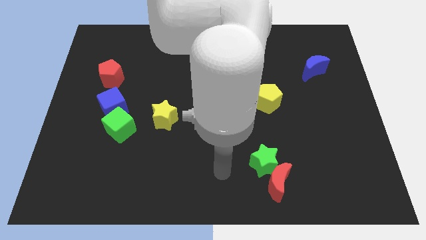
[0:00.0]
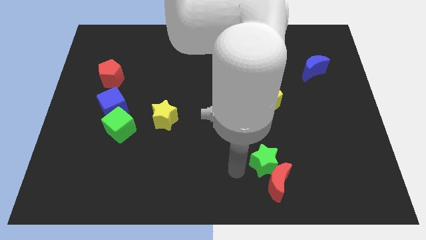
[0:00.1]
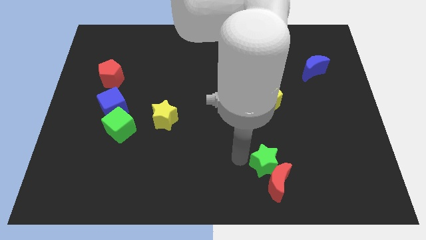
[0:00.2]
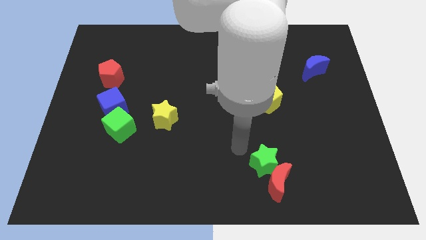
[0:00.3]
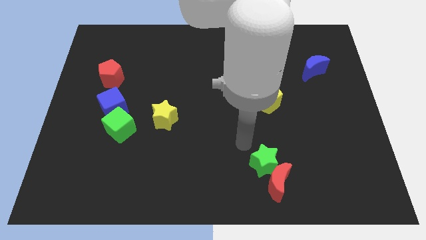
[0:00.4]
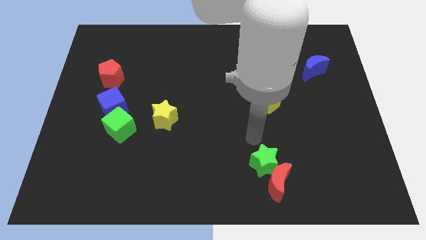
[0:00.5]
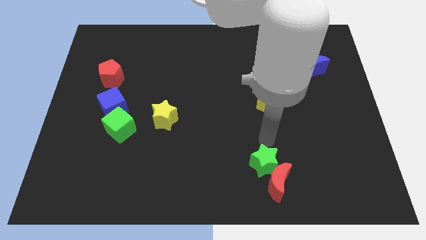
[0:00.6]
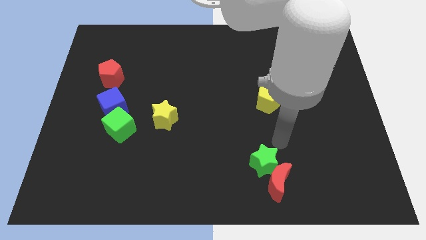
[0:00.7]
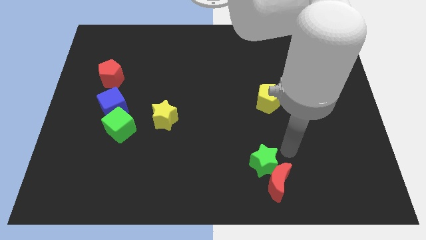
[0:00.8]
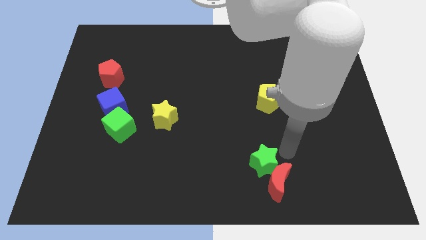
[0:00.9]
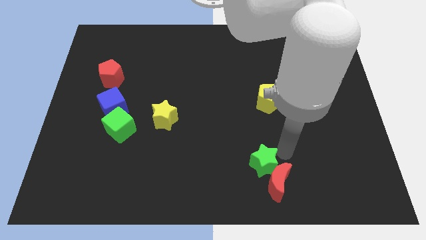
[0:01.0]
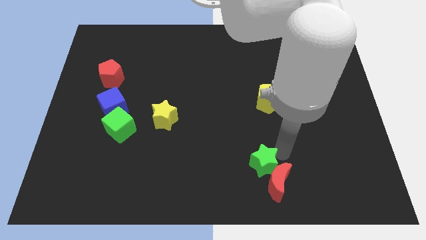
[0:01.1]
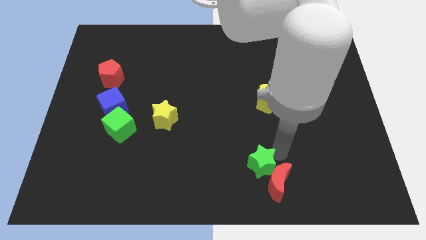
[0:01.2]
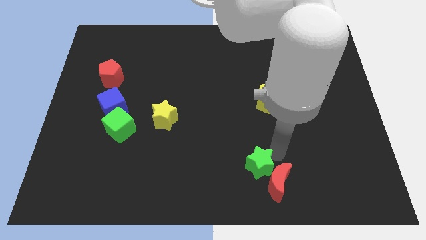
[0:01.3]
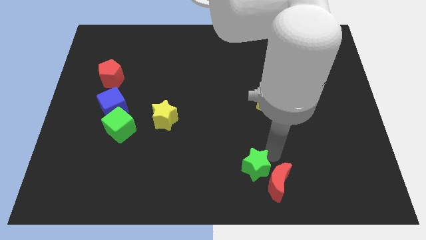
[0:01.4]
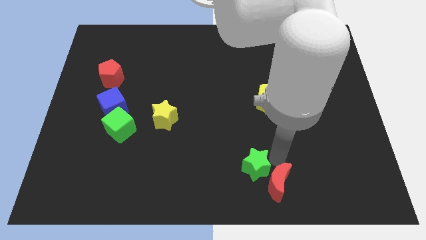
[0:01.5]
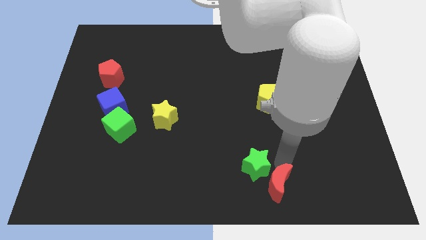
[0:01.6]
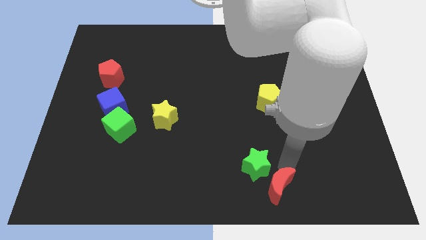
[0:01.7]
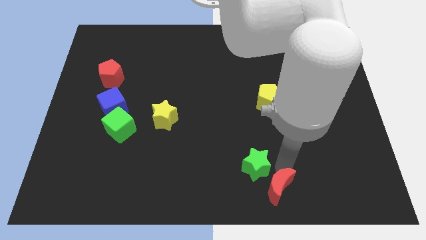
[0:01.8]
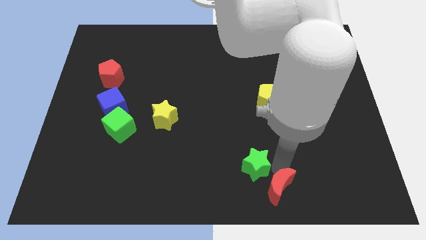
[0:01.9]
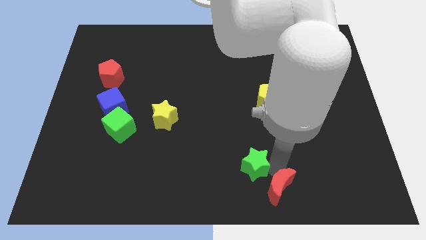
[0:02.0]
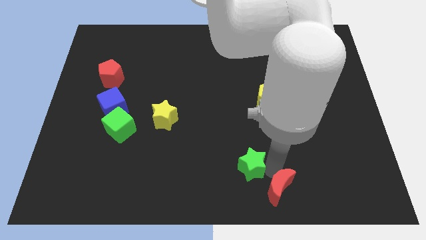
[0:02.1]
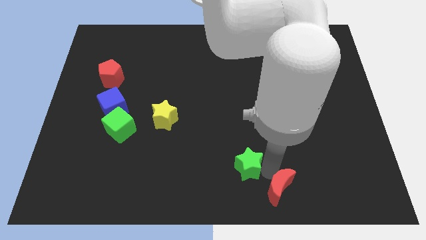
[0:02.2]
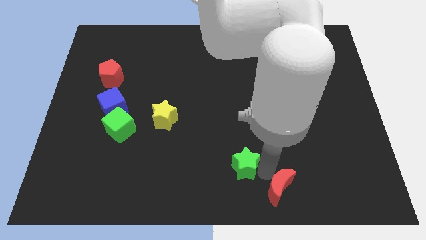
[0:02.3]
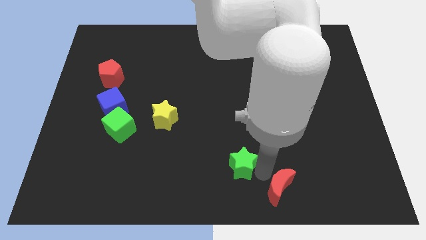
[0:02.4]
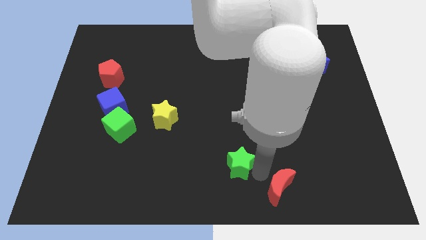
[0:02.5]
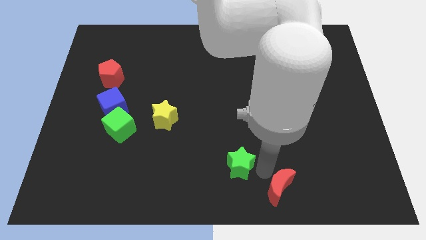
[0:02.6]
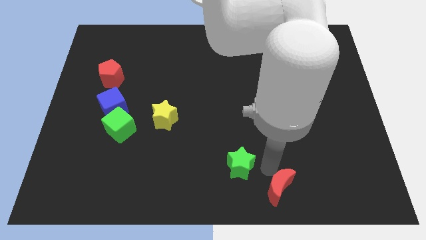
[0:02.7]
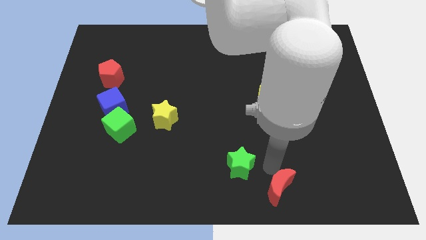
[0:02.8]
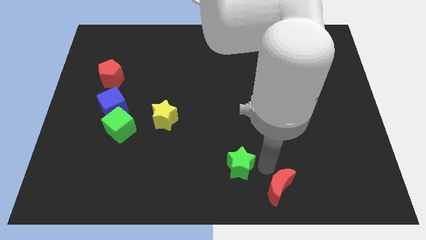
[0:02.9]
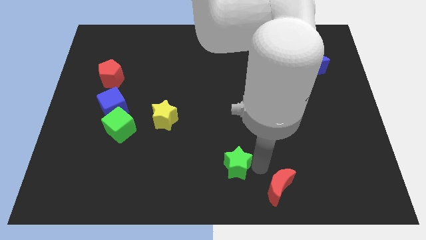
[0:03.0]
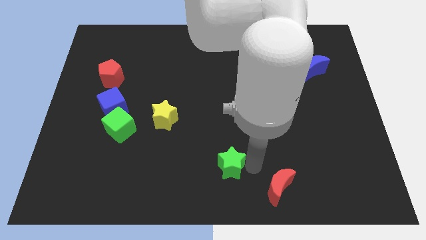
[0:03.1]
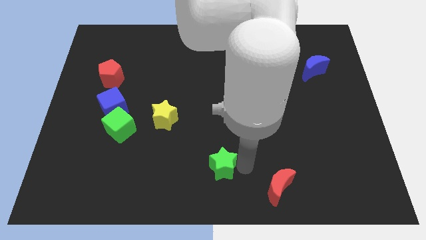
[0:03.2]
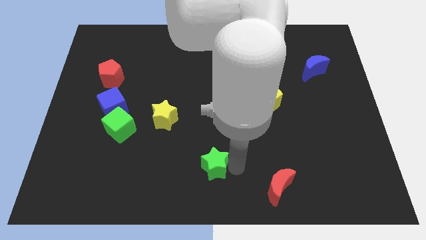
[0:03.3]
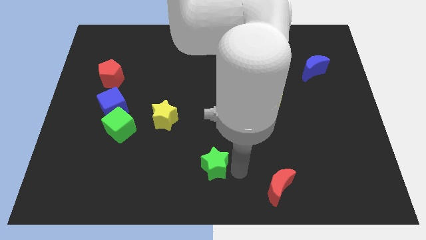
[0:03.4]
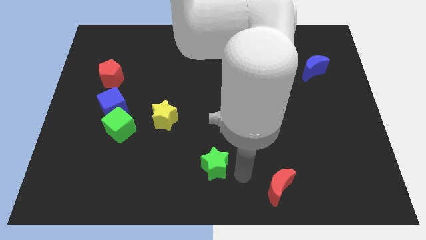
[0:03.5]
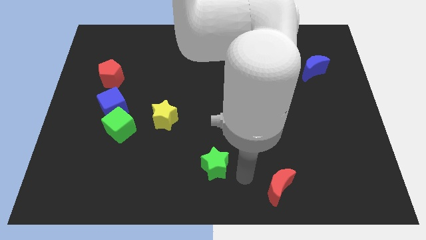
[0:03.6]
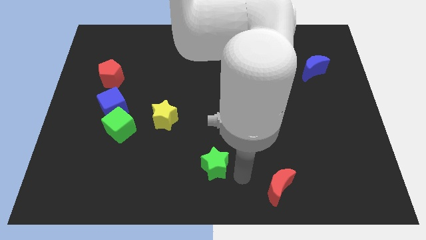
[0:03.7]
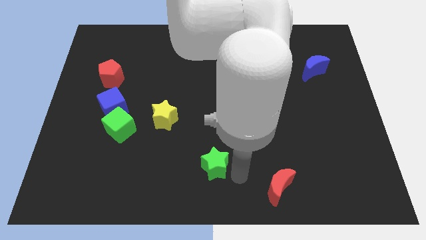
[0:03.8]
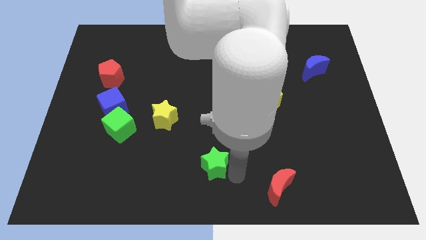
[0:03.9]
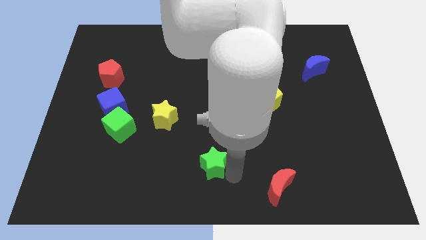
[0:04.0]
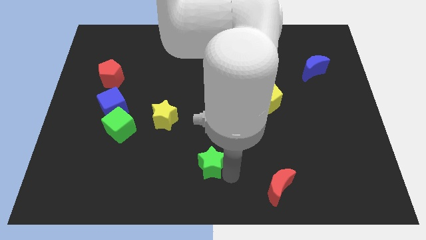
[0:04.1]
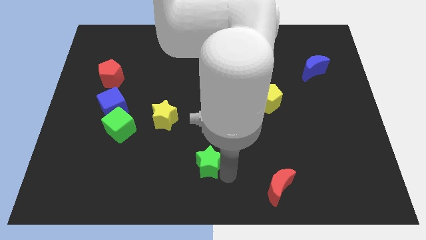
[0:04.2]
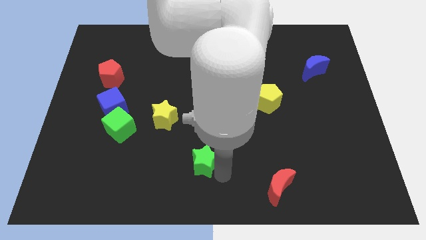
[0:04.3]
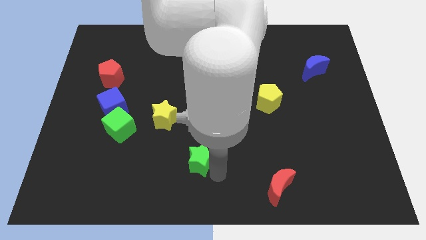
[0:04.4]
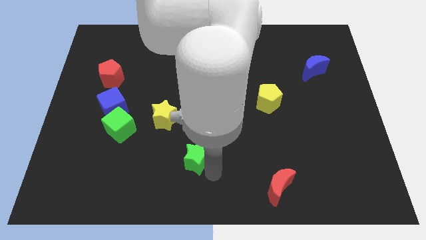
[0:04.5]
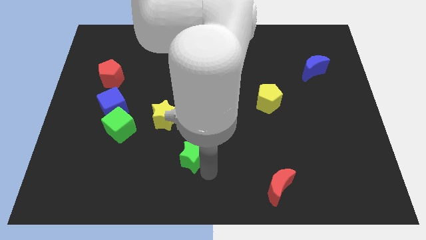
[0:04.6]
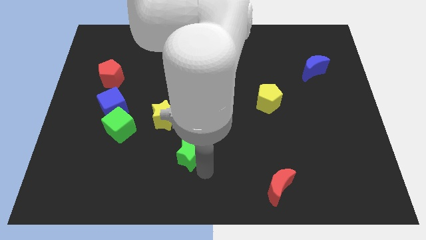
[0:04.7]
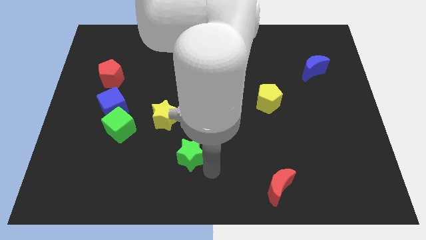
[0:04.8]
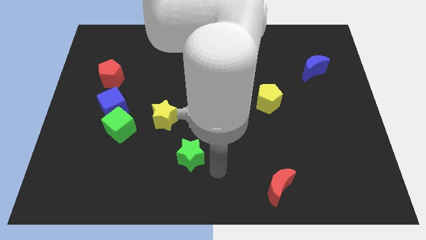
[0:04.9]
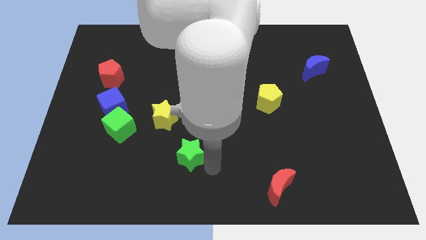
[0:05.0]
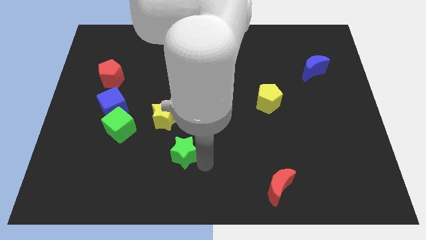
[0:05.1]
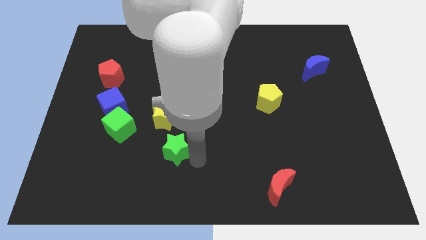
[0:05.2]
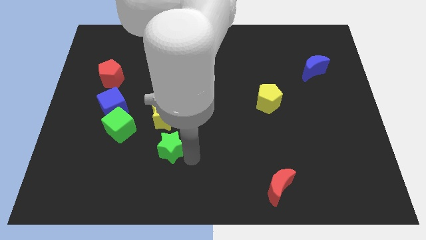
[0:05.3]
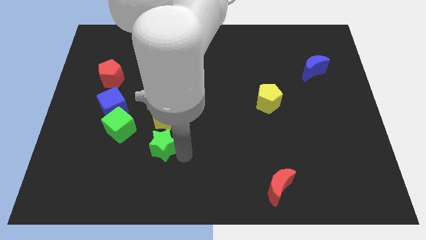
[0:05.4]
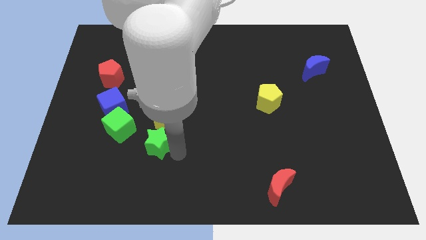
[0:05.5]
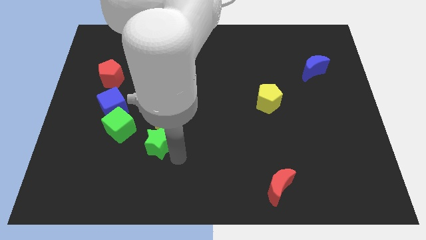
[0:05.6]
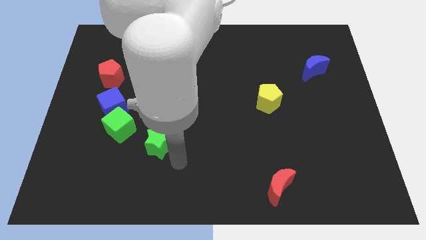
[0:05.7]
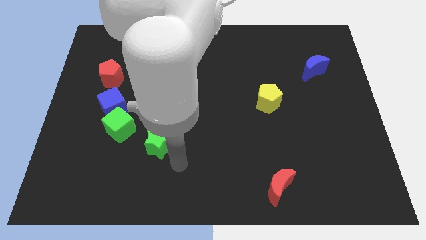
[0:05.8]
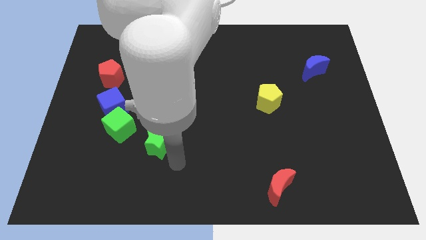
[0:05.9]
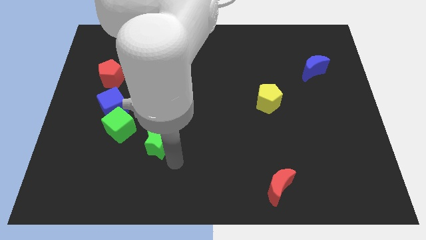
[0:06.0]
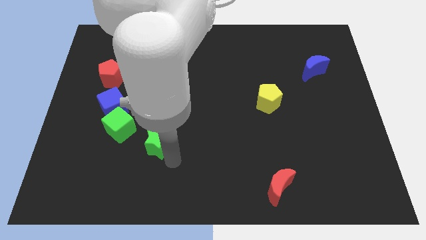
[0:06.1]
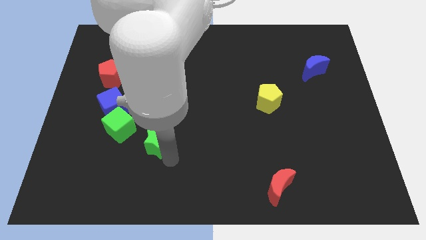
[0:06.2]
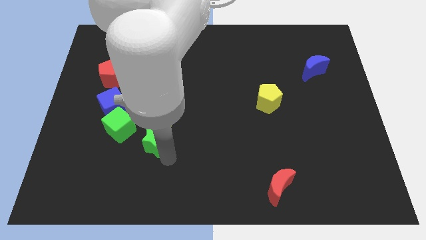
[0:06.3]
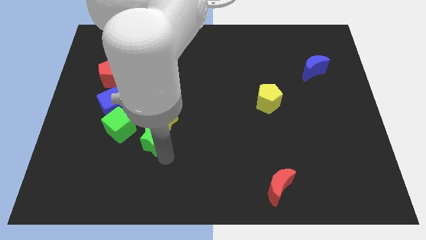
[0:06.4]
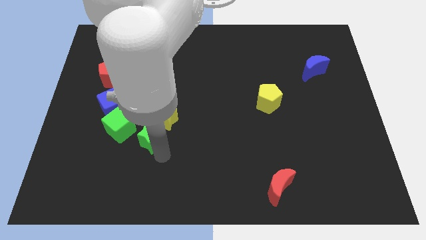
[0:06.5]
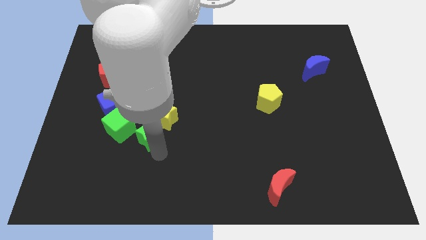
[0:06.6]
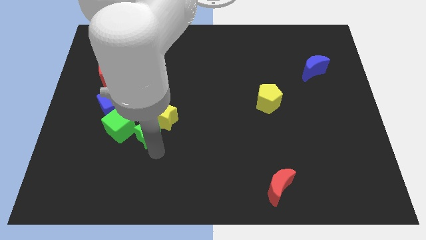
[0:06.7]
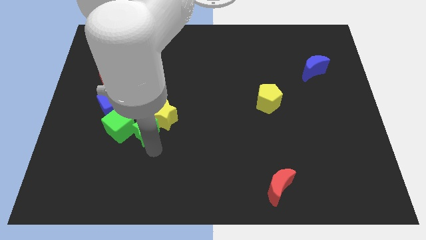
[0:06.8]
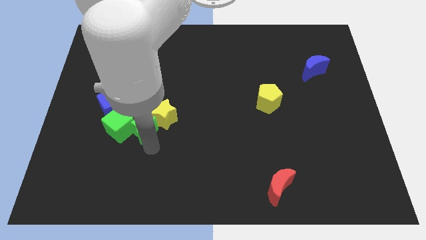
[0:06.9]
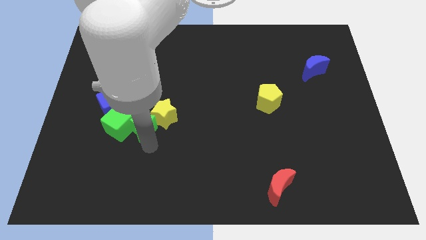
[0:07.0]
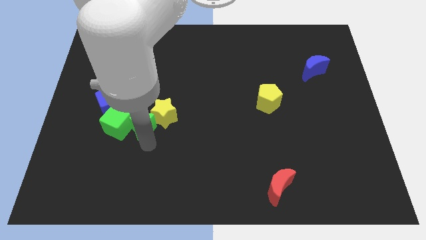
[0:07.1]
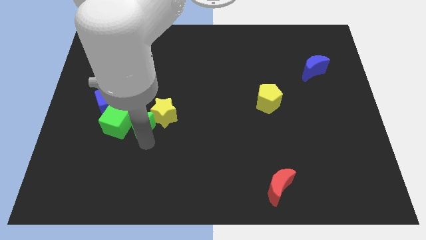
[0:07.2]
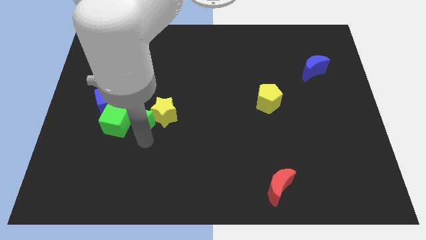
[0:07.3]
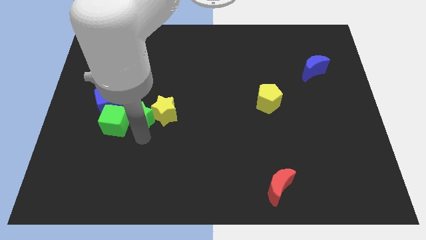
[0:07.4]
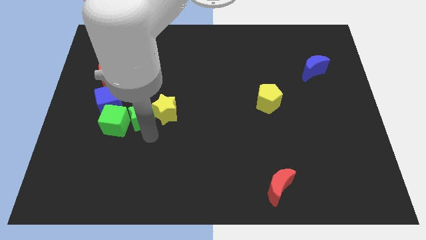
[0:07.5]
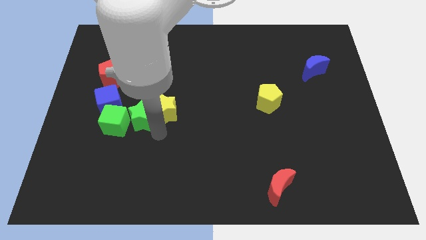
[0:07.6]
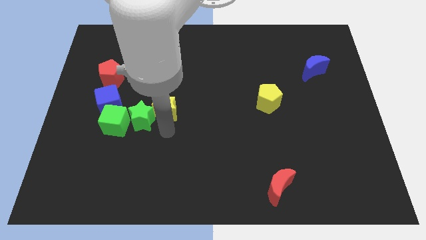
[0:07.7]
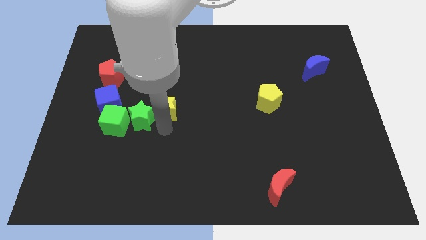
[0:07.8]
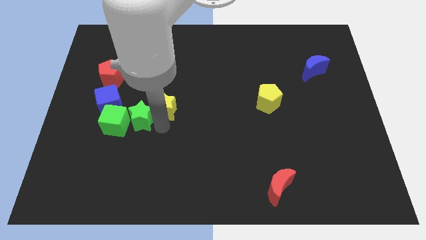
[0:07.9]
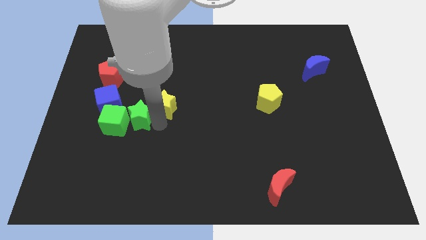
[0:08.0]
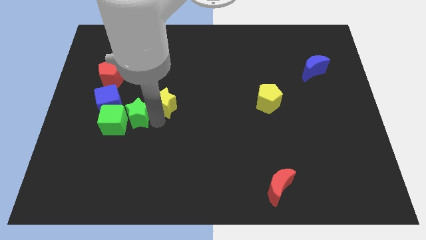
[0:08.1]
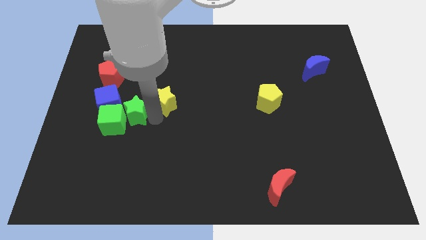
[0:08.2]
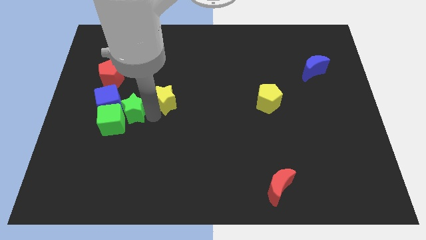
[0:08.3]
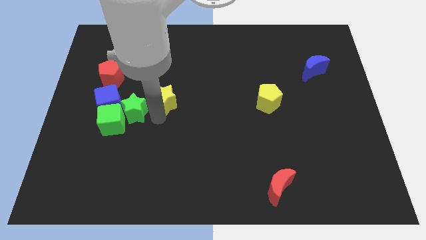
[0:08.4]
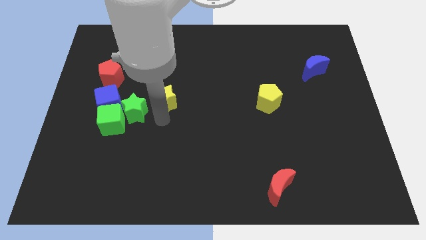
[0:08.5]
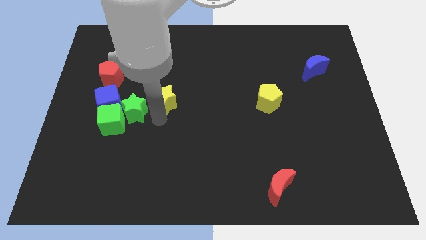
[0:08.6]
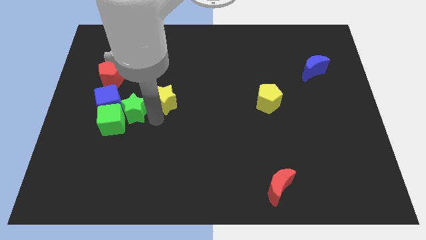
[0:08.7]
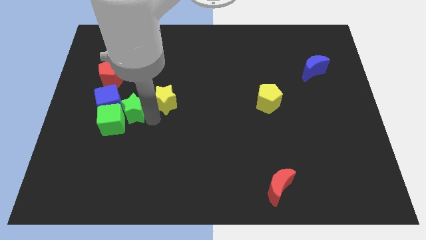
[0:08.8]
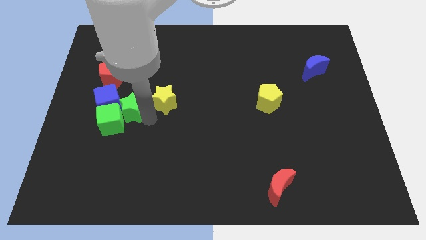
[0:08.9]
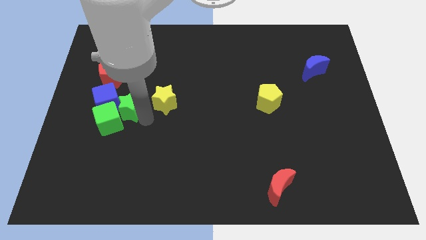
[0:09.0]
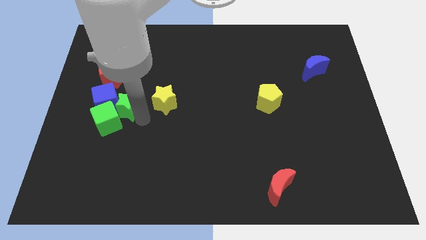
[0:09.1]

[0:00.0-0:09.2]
slide the green star close to the blue cube
